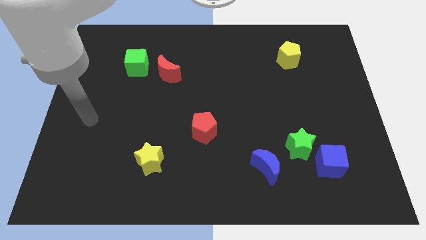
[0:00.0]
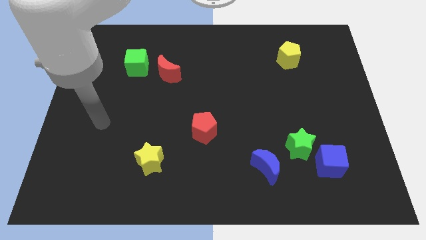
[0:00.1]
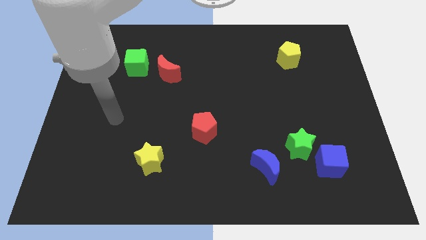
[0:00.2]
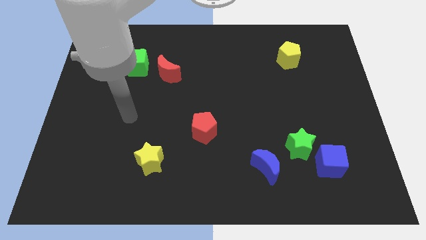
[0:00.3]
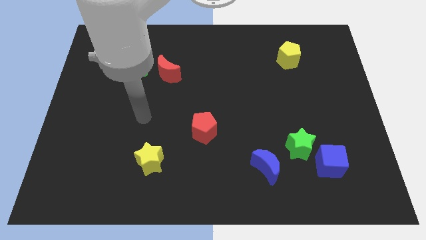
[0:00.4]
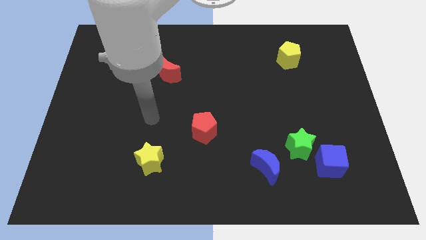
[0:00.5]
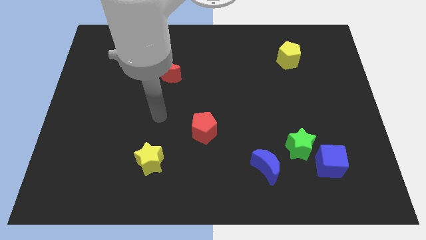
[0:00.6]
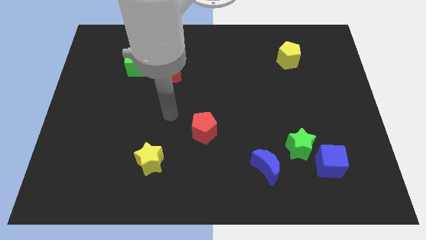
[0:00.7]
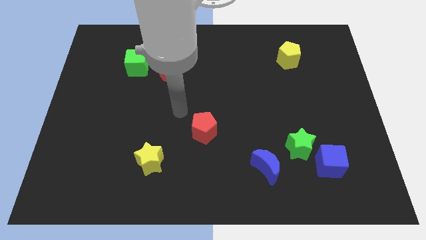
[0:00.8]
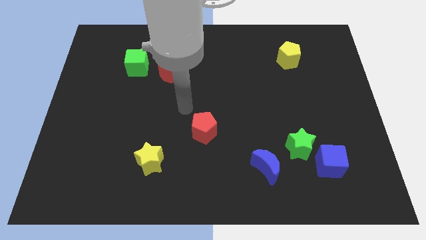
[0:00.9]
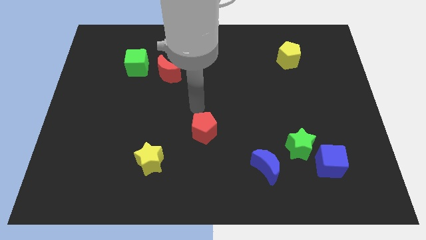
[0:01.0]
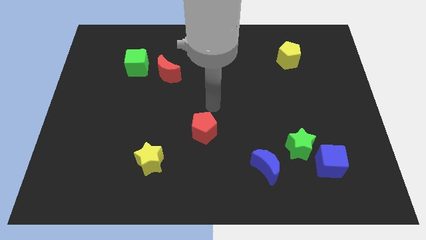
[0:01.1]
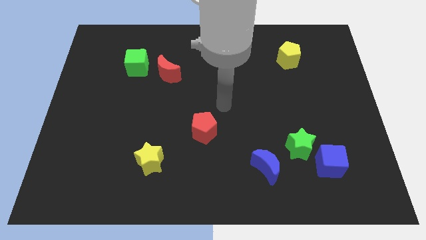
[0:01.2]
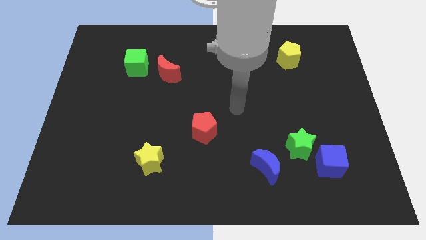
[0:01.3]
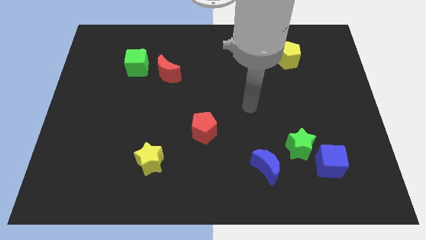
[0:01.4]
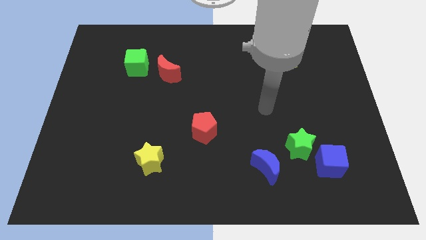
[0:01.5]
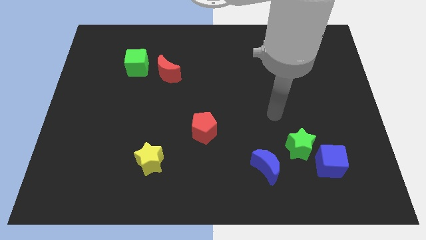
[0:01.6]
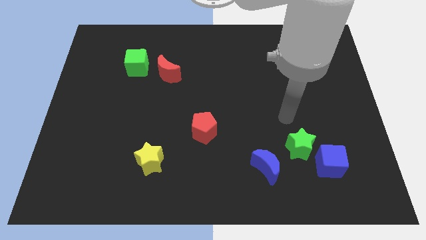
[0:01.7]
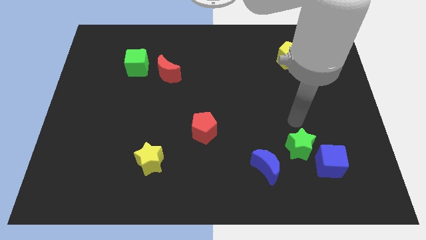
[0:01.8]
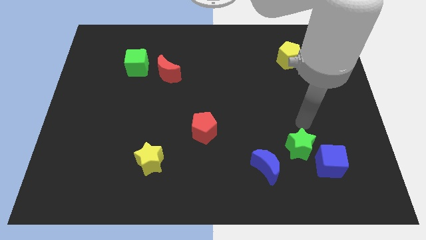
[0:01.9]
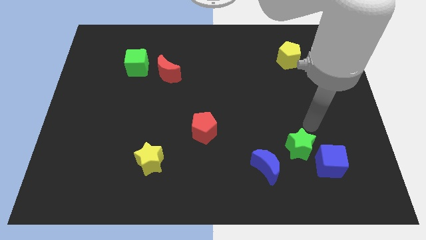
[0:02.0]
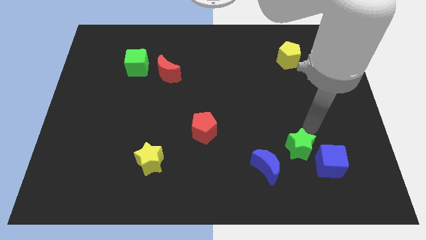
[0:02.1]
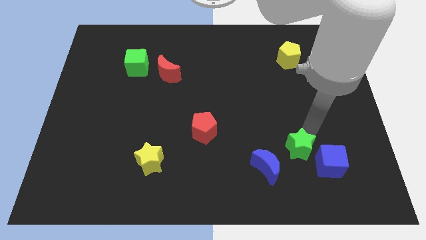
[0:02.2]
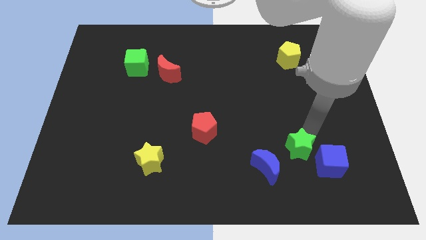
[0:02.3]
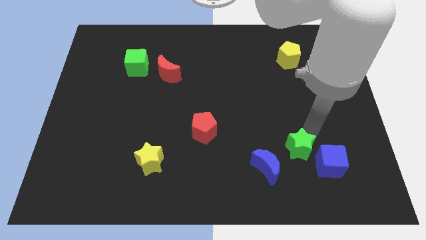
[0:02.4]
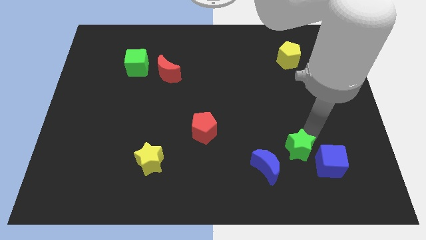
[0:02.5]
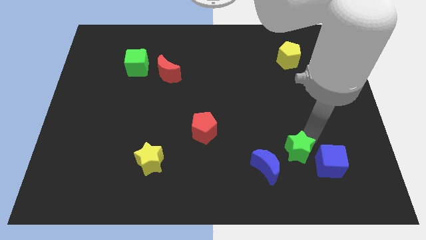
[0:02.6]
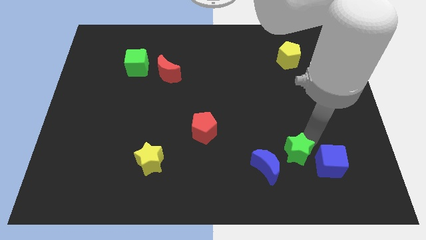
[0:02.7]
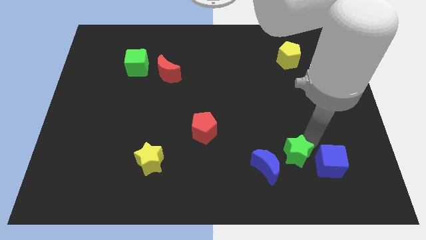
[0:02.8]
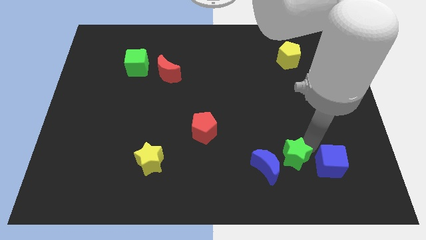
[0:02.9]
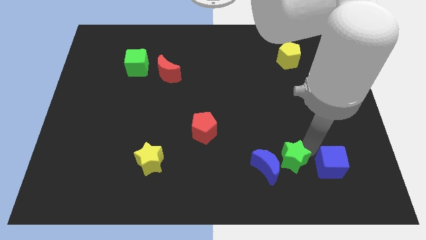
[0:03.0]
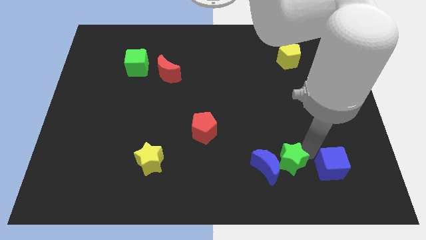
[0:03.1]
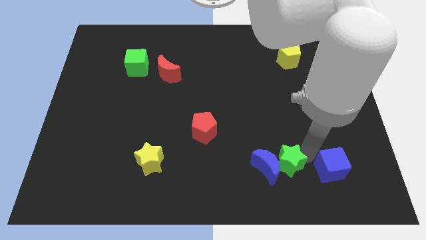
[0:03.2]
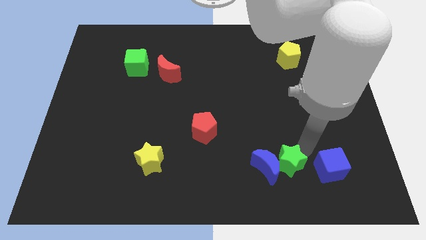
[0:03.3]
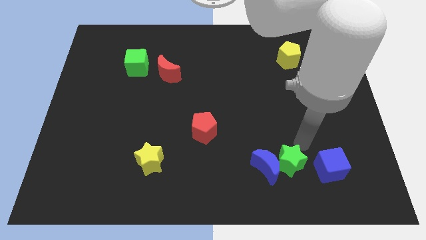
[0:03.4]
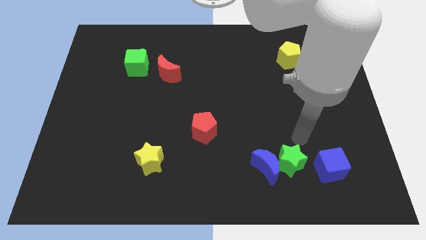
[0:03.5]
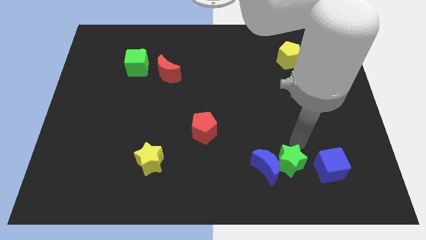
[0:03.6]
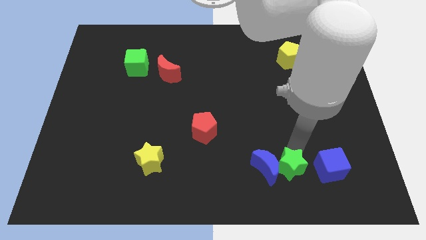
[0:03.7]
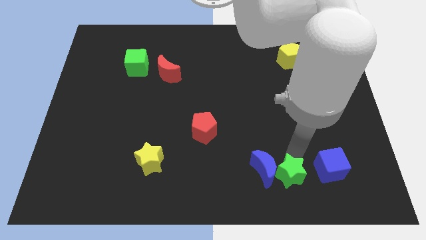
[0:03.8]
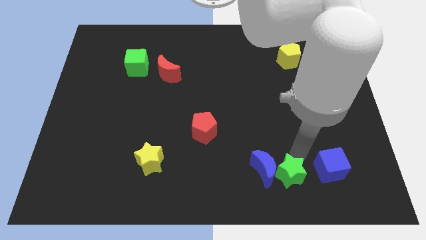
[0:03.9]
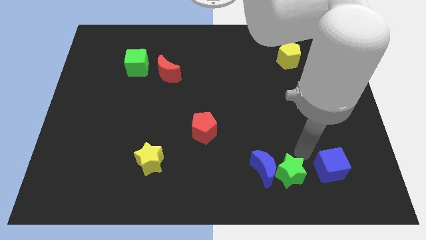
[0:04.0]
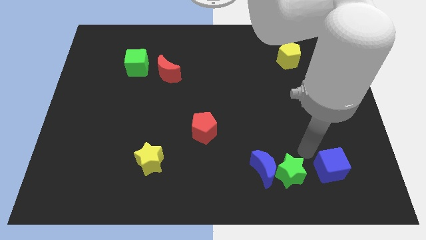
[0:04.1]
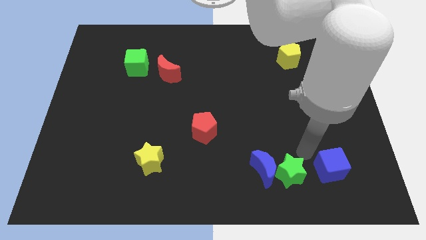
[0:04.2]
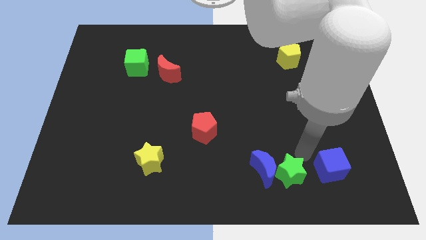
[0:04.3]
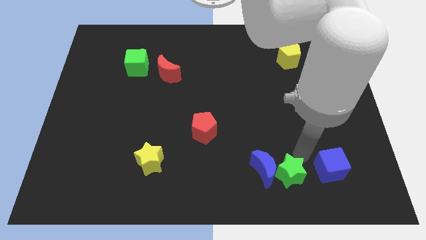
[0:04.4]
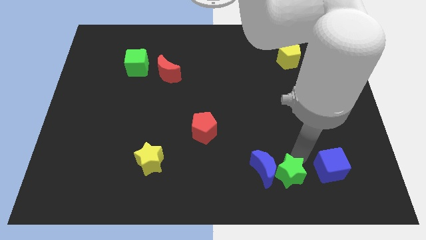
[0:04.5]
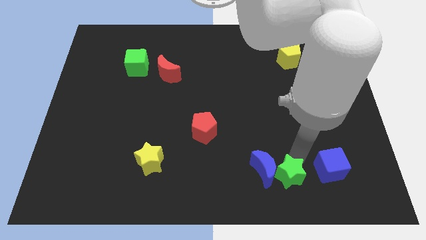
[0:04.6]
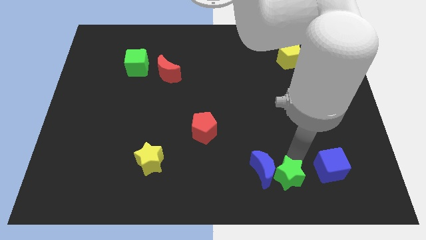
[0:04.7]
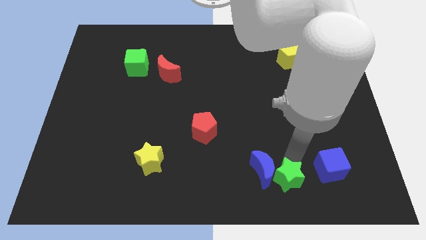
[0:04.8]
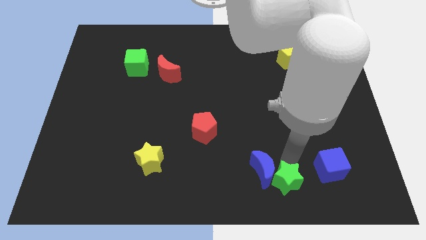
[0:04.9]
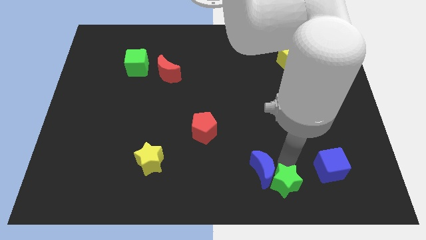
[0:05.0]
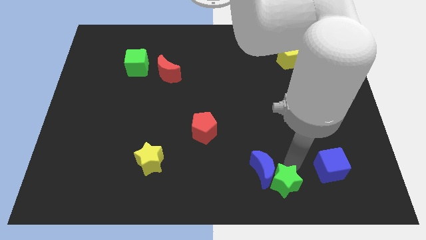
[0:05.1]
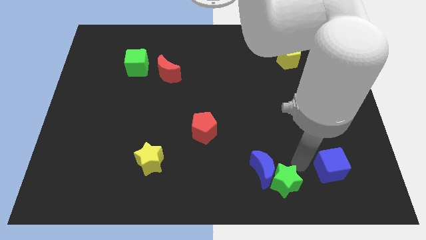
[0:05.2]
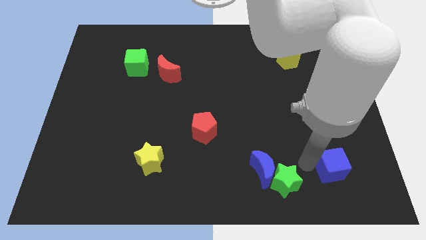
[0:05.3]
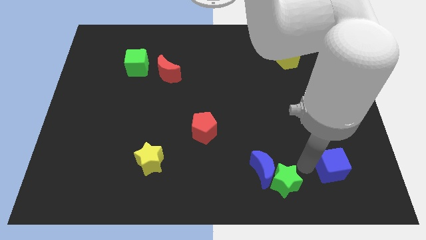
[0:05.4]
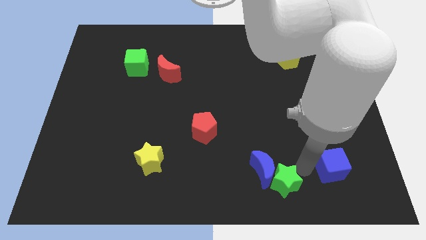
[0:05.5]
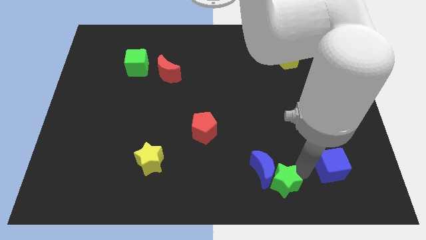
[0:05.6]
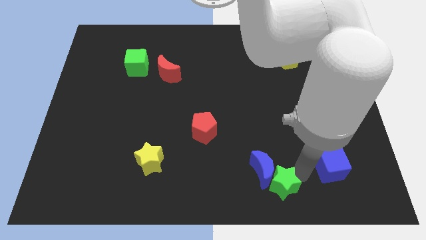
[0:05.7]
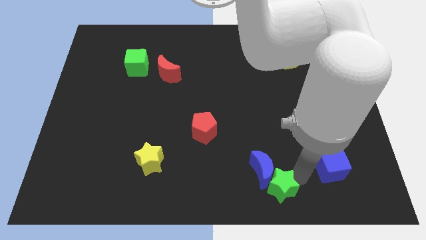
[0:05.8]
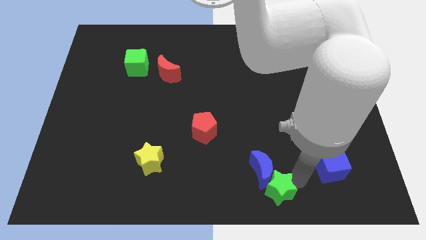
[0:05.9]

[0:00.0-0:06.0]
slide the green star to the bottom side
